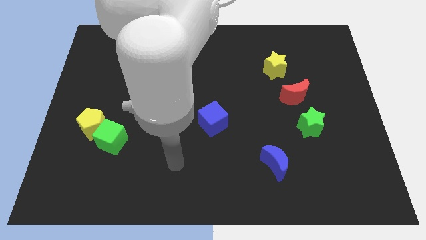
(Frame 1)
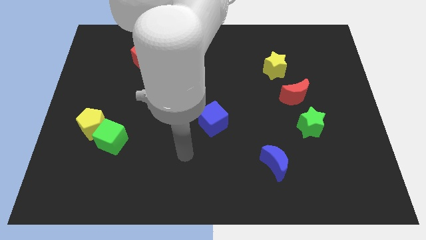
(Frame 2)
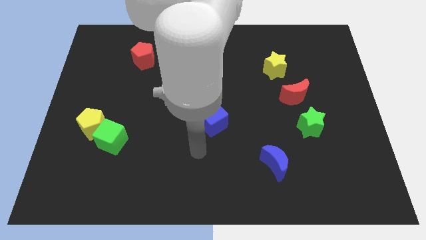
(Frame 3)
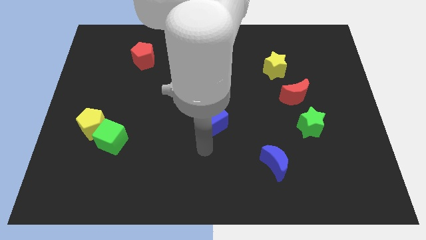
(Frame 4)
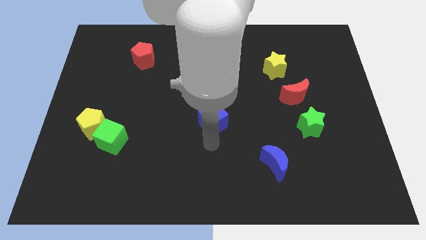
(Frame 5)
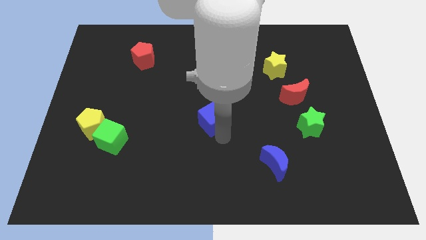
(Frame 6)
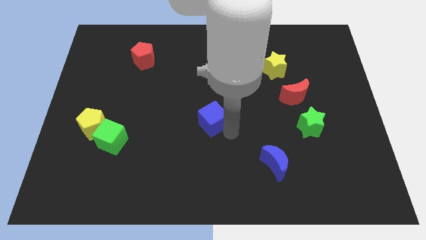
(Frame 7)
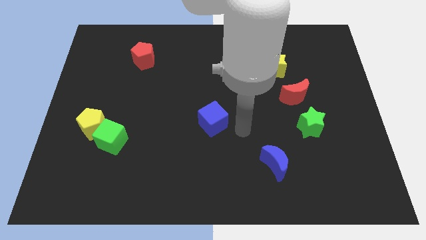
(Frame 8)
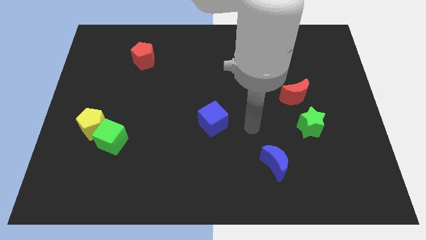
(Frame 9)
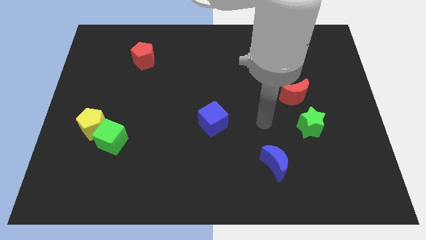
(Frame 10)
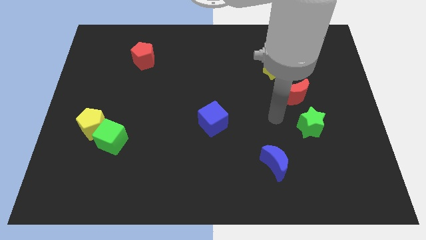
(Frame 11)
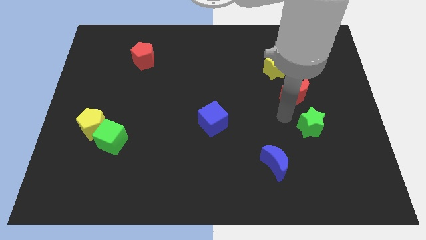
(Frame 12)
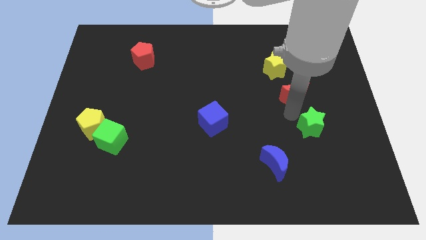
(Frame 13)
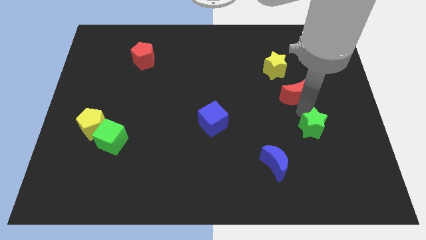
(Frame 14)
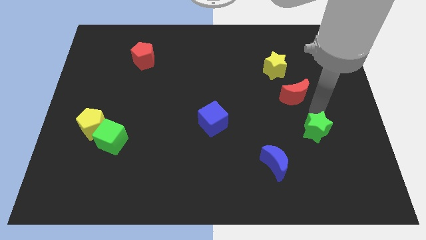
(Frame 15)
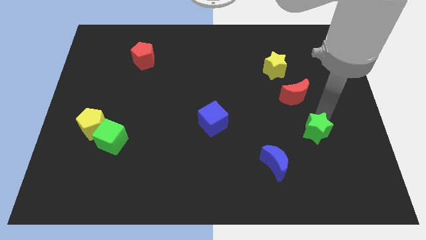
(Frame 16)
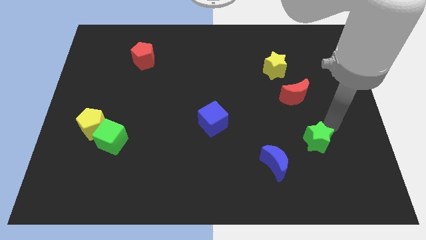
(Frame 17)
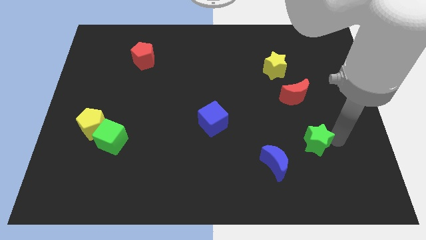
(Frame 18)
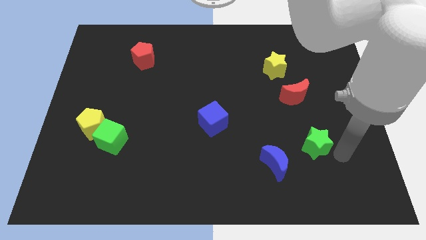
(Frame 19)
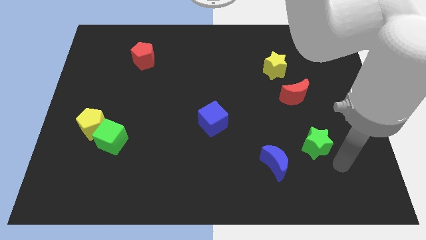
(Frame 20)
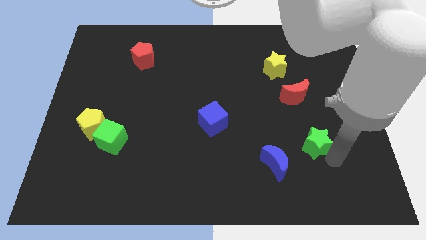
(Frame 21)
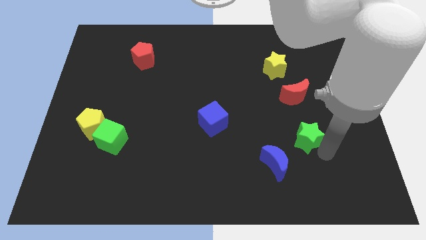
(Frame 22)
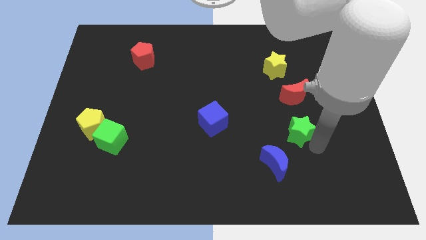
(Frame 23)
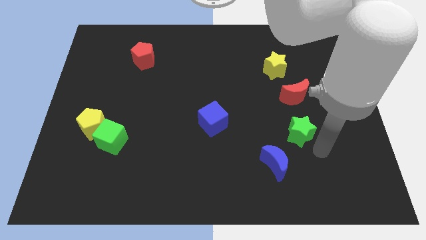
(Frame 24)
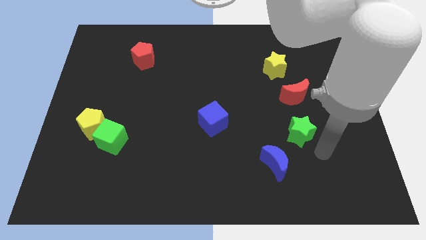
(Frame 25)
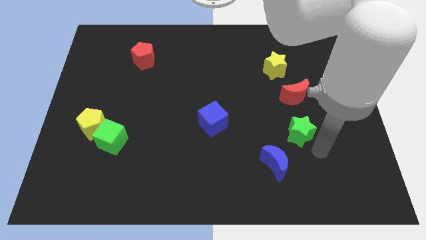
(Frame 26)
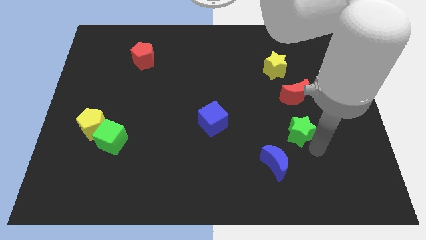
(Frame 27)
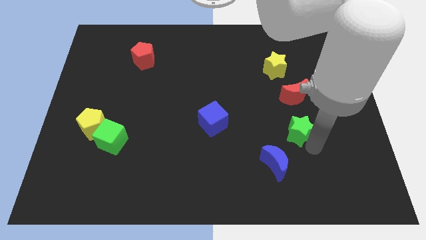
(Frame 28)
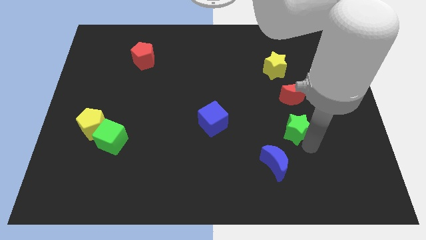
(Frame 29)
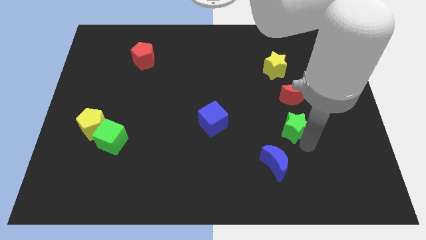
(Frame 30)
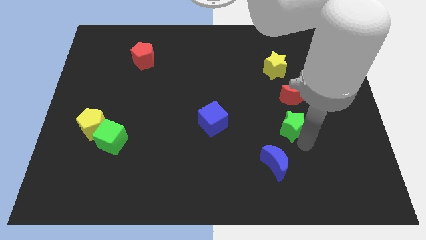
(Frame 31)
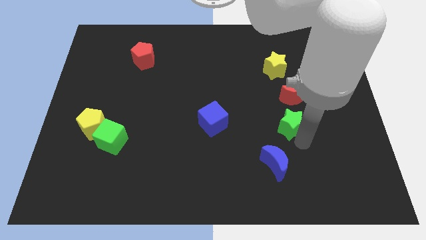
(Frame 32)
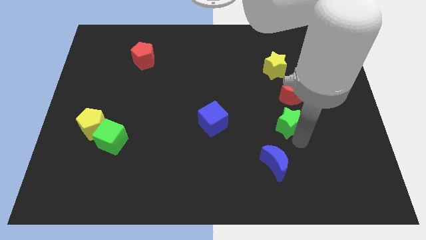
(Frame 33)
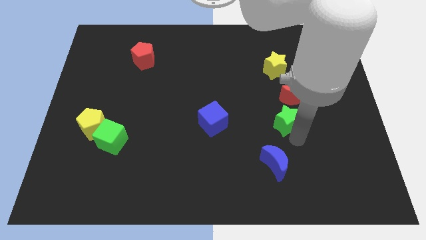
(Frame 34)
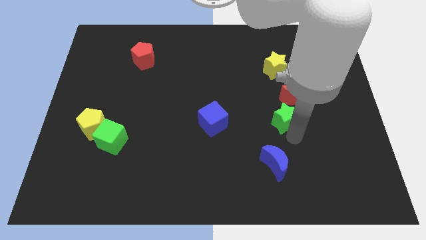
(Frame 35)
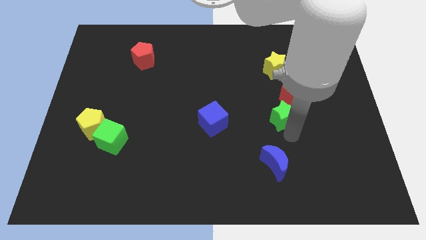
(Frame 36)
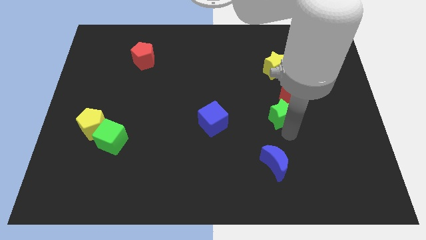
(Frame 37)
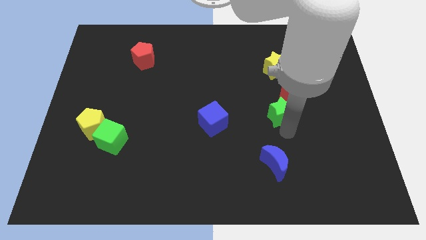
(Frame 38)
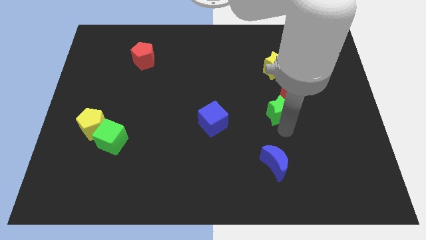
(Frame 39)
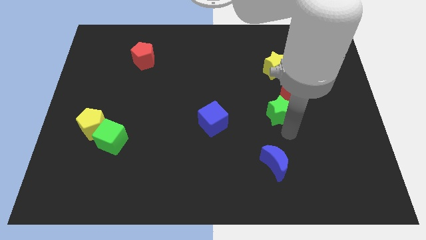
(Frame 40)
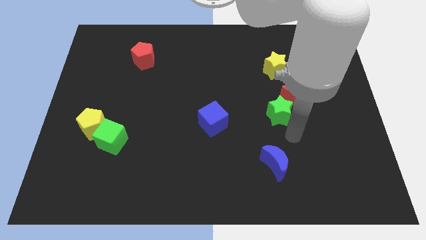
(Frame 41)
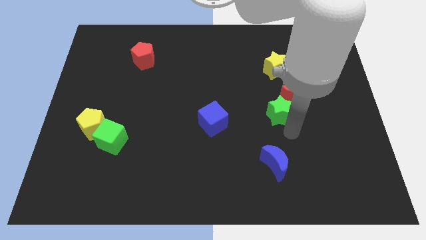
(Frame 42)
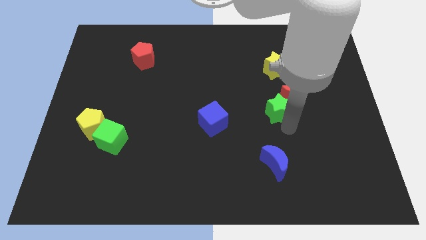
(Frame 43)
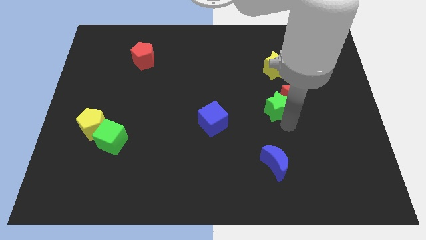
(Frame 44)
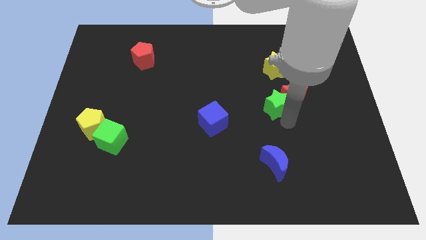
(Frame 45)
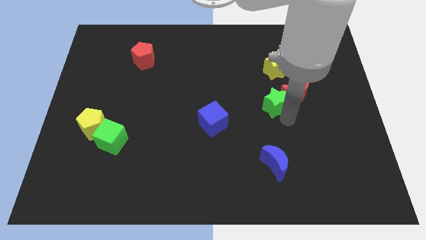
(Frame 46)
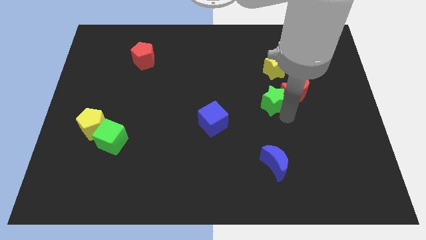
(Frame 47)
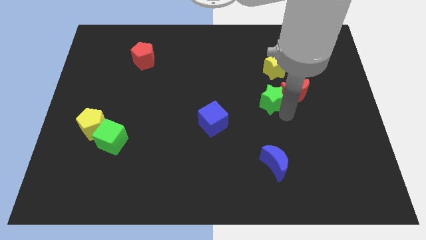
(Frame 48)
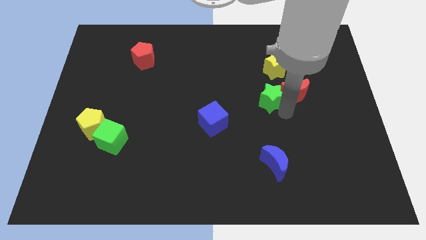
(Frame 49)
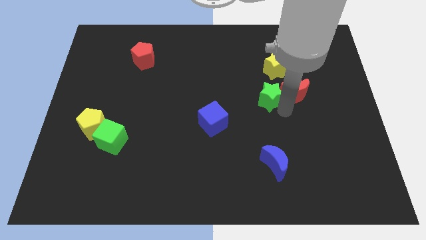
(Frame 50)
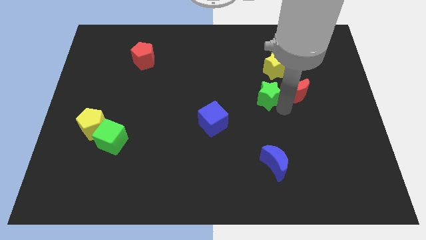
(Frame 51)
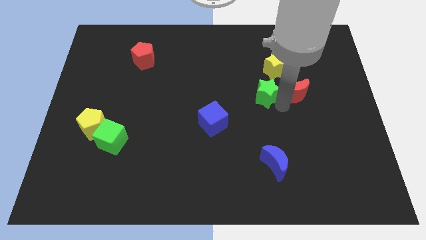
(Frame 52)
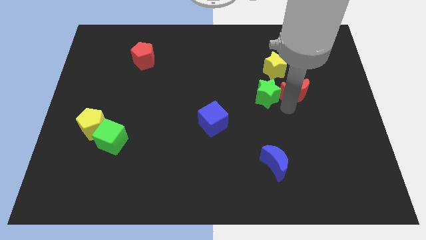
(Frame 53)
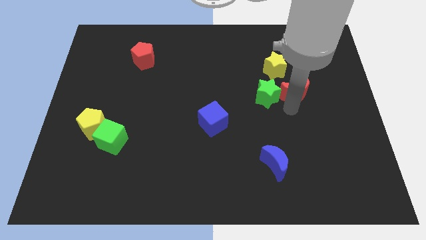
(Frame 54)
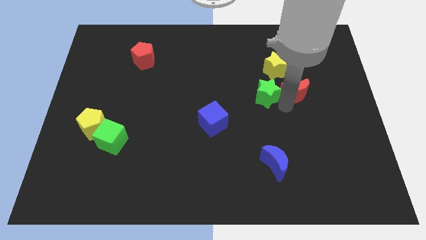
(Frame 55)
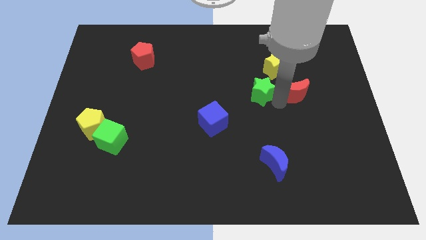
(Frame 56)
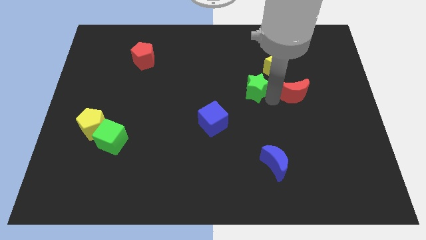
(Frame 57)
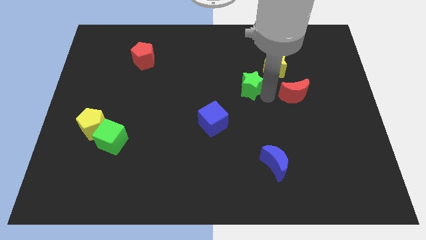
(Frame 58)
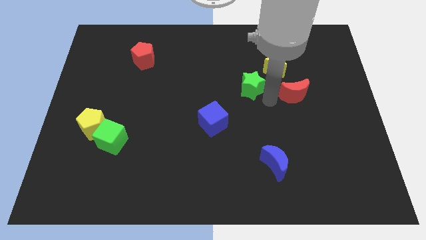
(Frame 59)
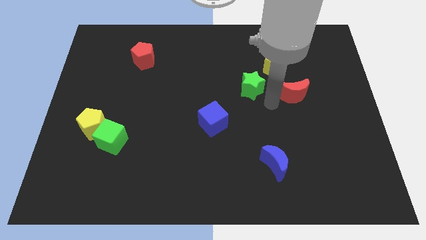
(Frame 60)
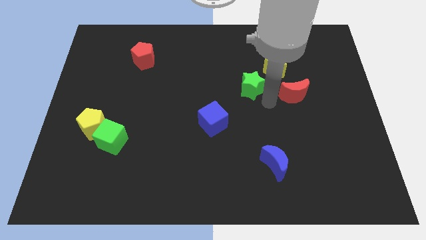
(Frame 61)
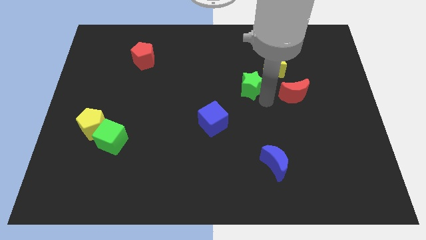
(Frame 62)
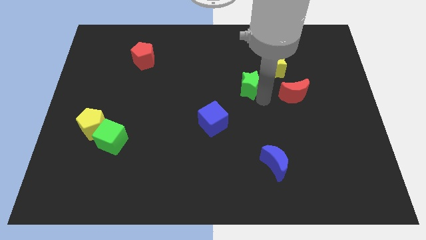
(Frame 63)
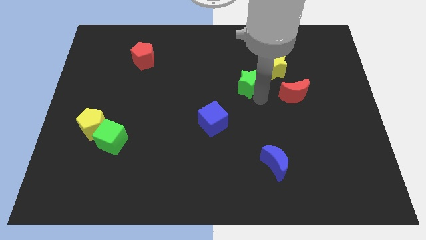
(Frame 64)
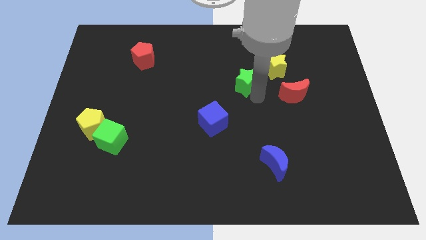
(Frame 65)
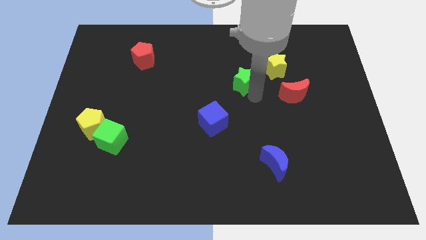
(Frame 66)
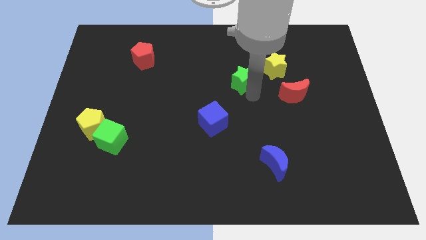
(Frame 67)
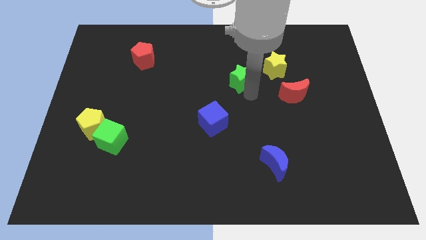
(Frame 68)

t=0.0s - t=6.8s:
move the green star diagonally up and to the left

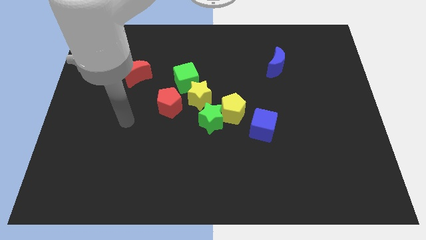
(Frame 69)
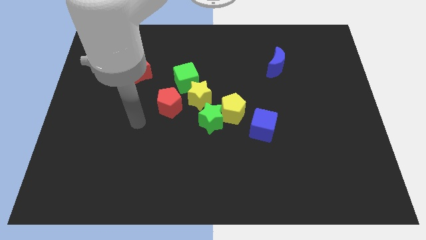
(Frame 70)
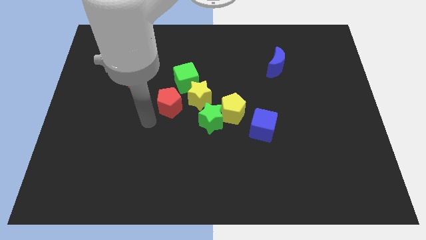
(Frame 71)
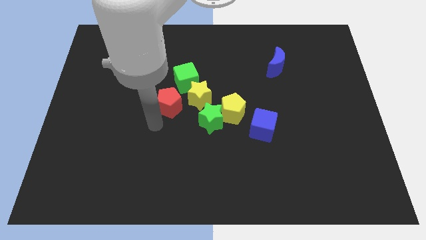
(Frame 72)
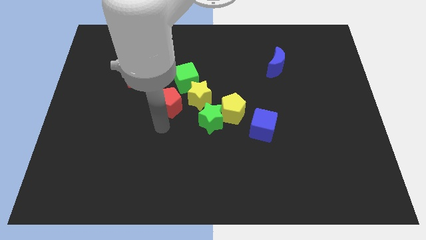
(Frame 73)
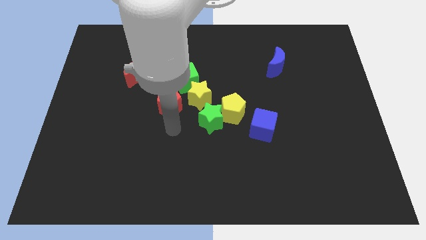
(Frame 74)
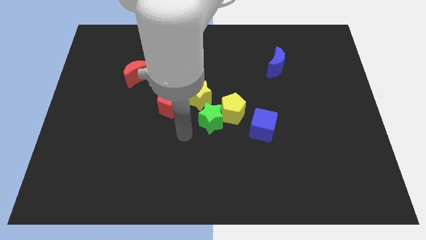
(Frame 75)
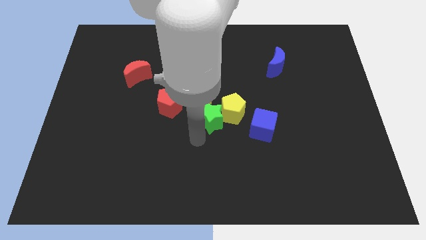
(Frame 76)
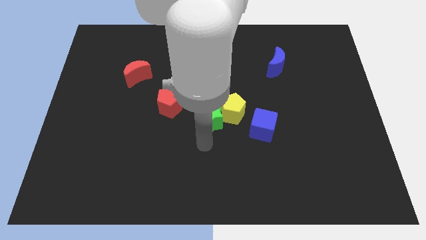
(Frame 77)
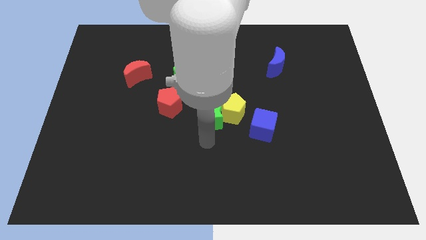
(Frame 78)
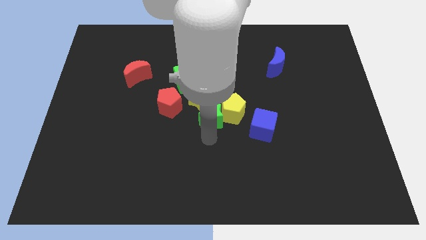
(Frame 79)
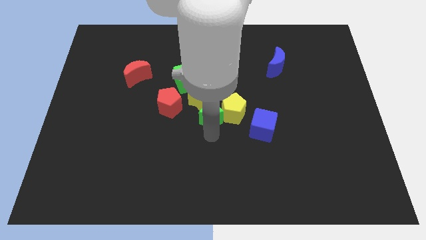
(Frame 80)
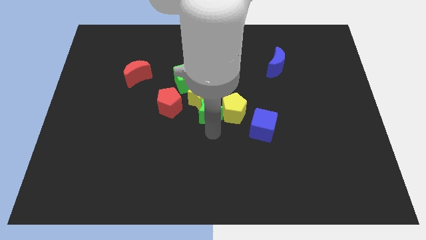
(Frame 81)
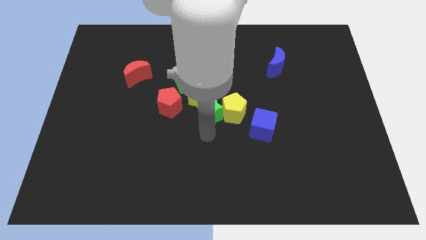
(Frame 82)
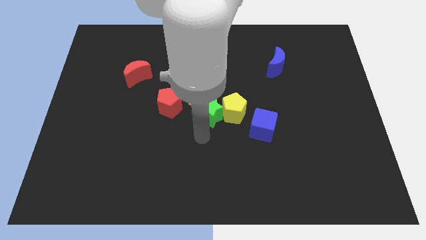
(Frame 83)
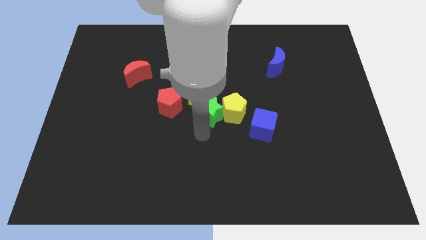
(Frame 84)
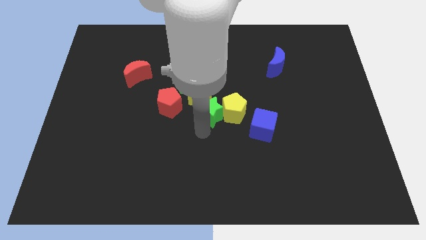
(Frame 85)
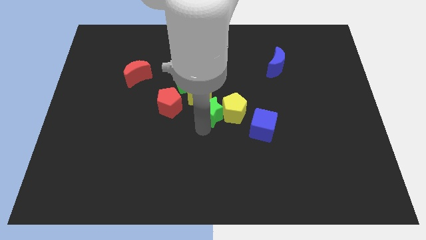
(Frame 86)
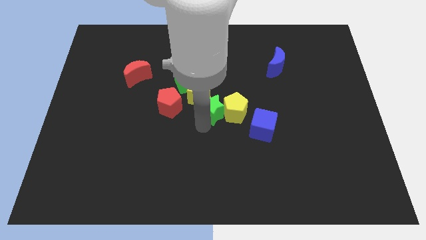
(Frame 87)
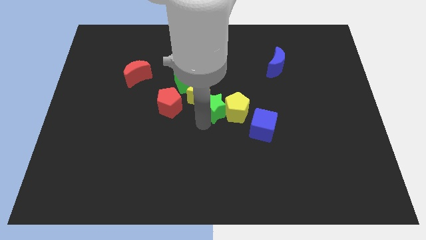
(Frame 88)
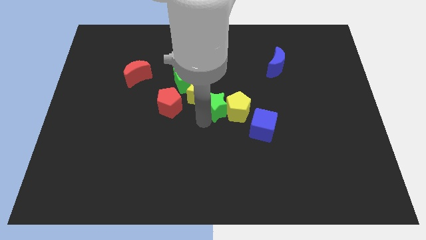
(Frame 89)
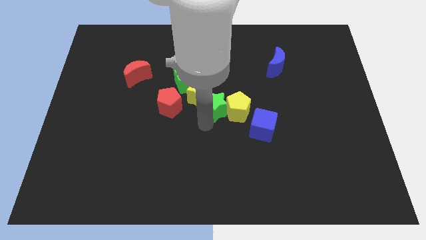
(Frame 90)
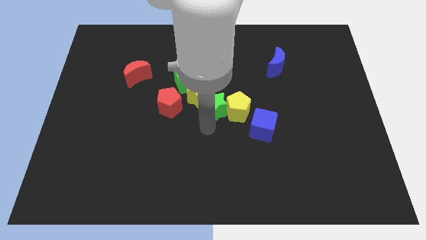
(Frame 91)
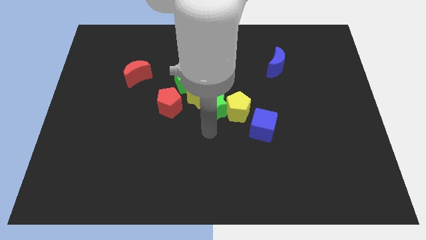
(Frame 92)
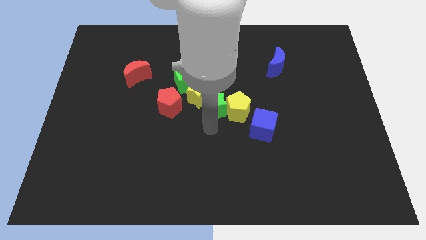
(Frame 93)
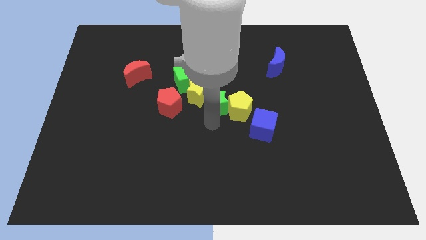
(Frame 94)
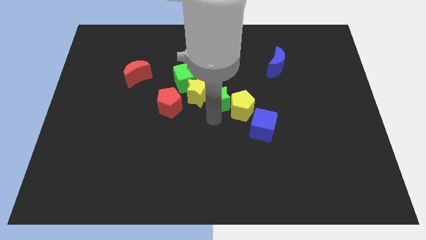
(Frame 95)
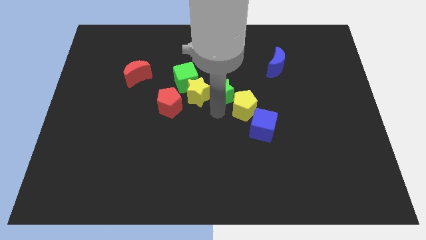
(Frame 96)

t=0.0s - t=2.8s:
push the green star upwards a little
